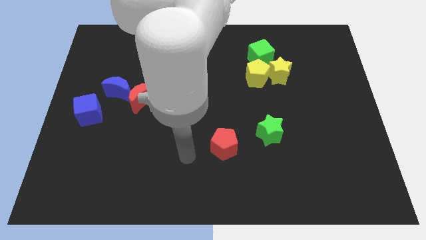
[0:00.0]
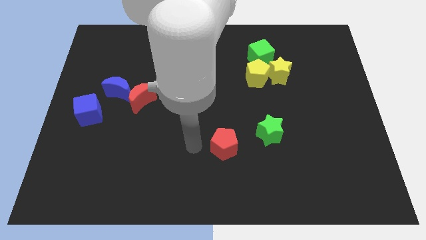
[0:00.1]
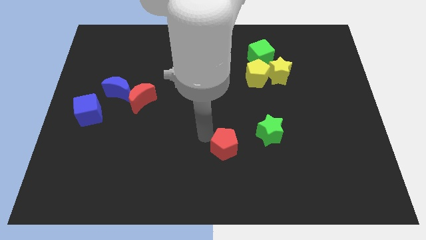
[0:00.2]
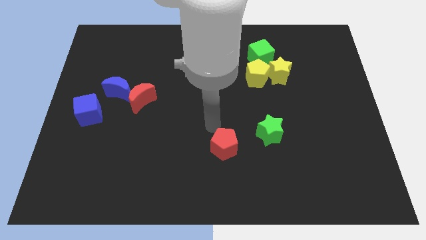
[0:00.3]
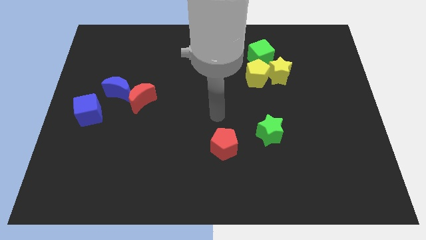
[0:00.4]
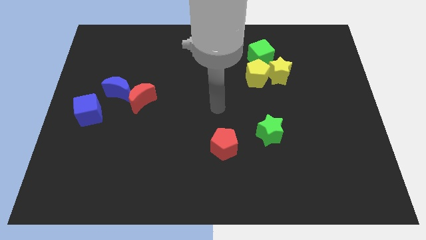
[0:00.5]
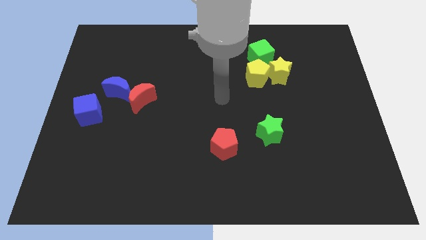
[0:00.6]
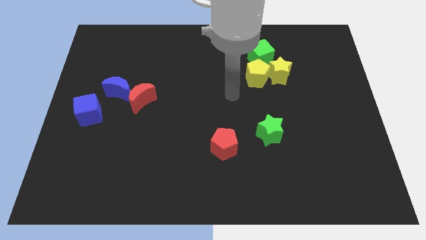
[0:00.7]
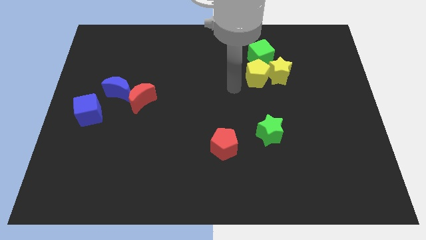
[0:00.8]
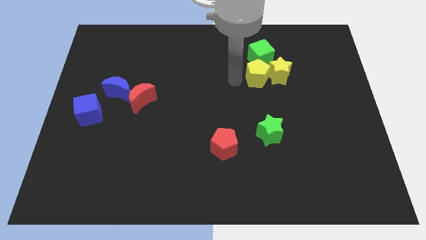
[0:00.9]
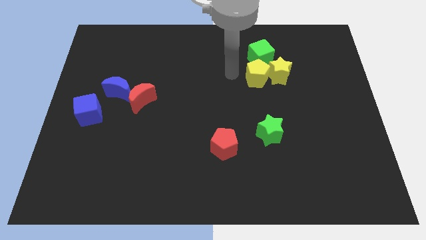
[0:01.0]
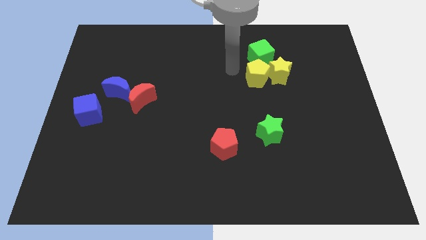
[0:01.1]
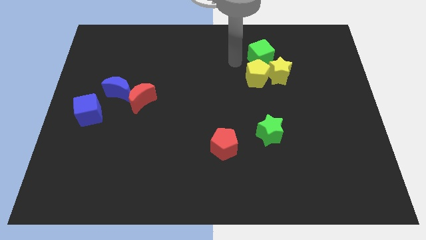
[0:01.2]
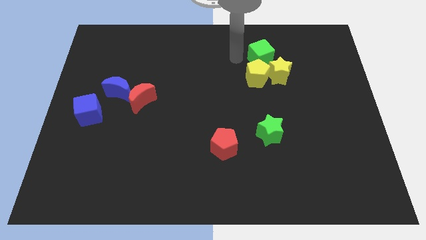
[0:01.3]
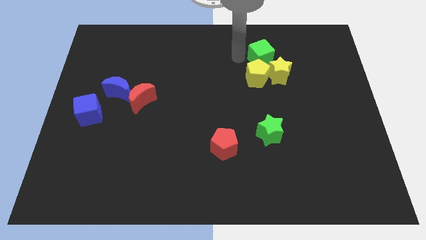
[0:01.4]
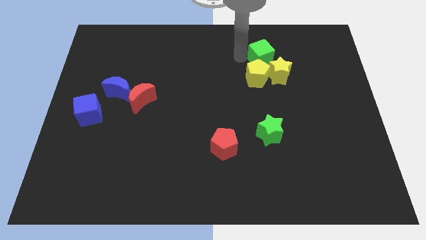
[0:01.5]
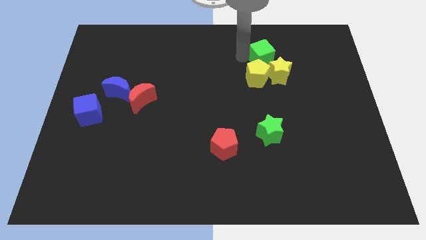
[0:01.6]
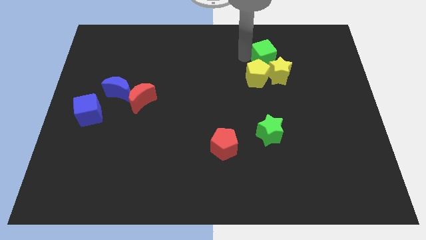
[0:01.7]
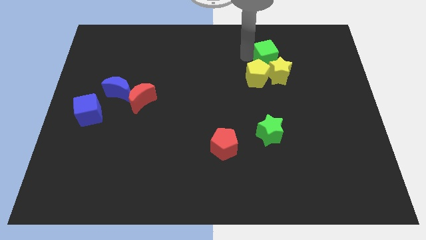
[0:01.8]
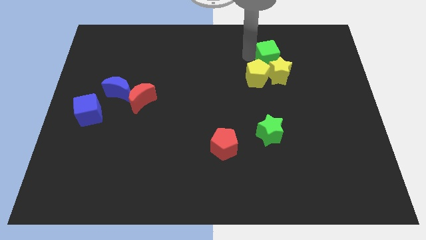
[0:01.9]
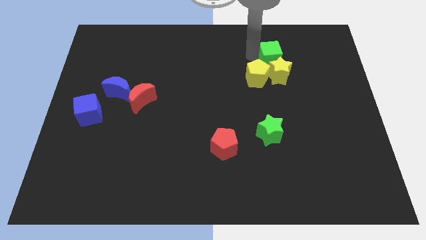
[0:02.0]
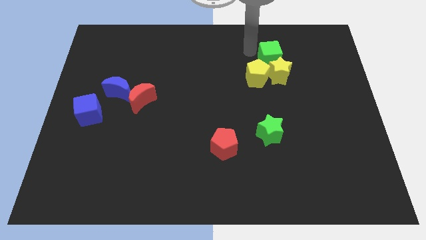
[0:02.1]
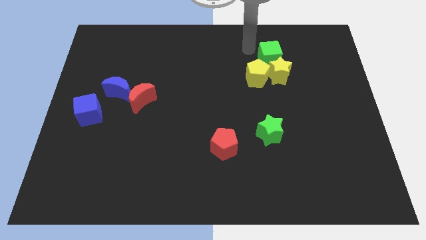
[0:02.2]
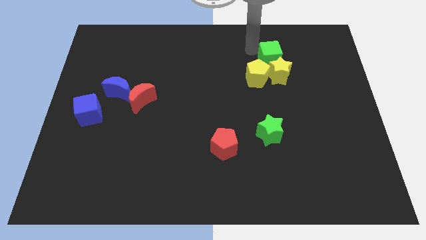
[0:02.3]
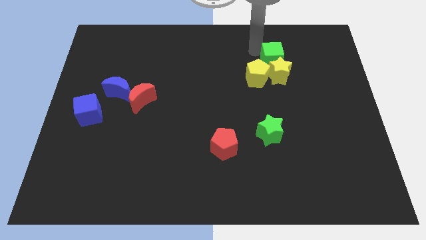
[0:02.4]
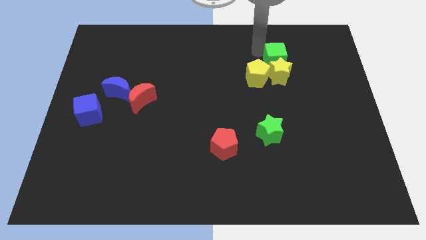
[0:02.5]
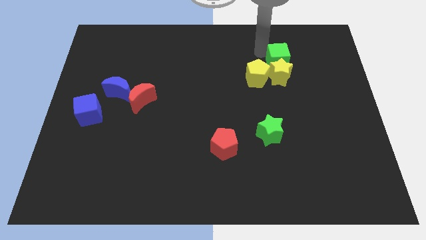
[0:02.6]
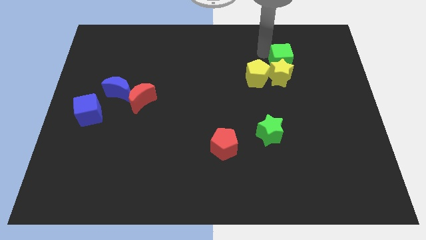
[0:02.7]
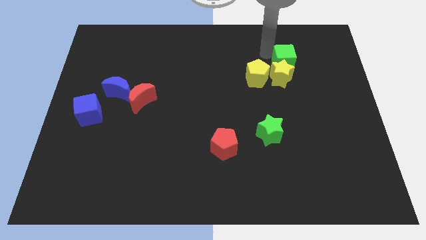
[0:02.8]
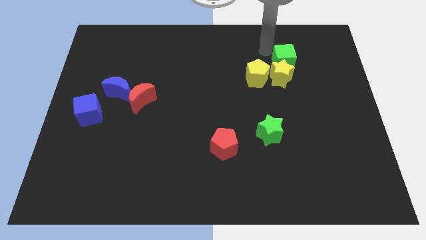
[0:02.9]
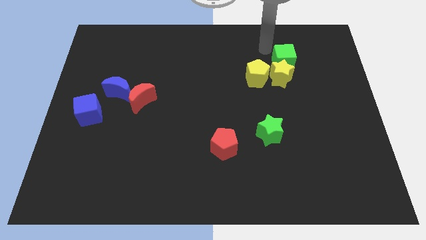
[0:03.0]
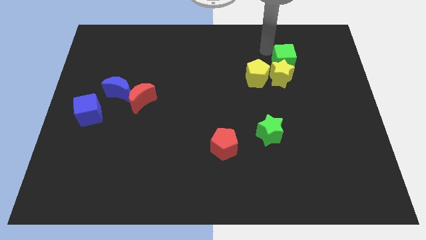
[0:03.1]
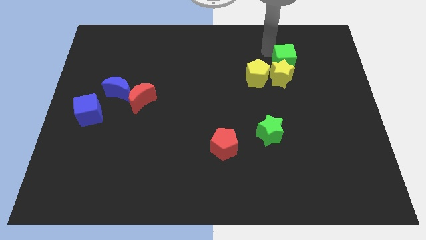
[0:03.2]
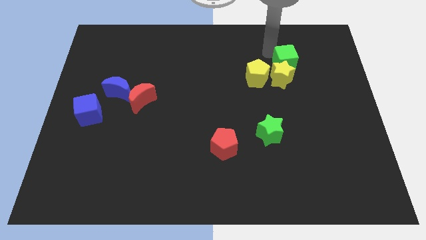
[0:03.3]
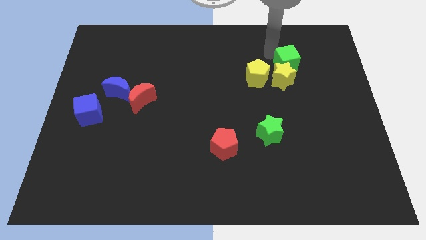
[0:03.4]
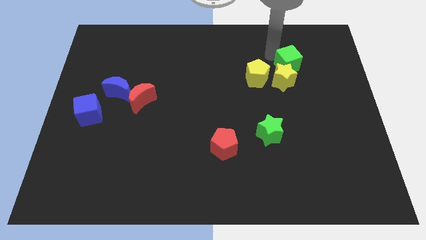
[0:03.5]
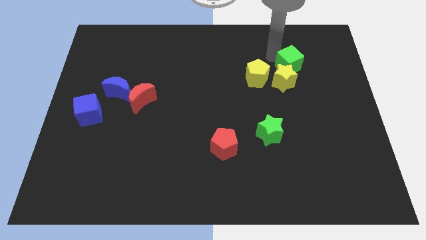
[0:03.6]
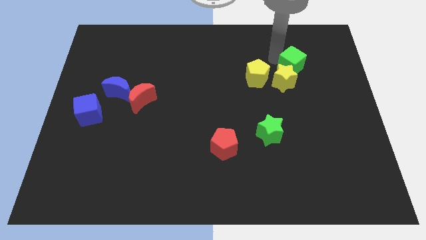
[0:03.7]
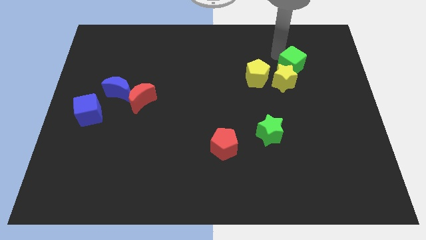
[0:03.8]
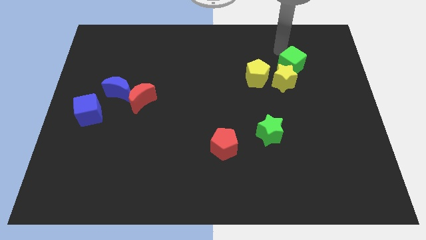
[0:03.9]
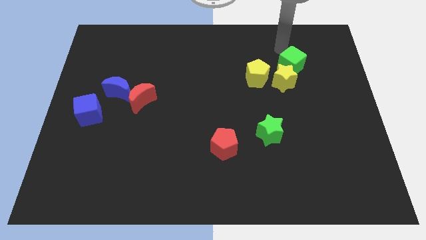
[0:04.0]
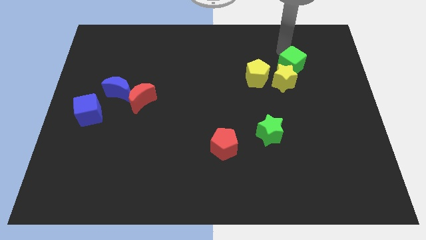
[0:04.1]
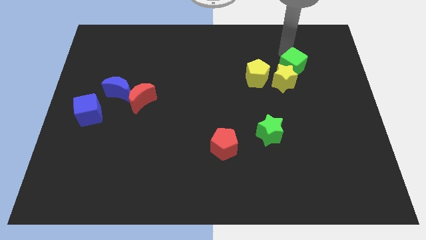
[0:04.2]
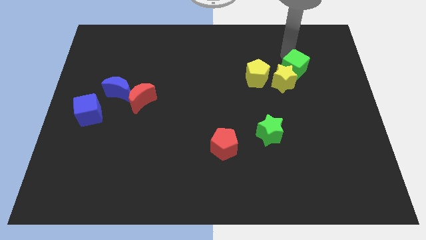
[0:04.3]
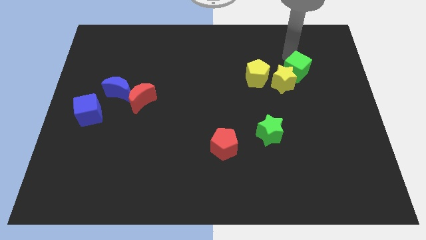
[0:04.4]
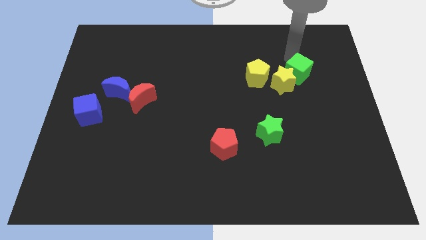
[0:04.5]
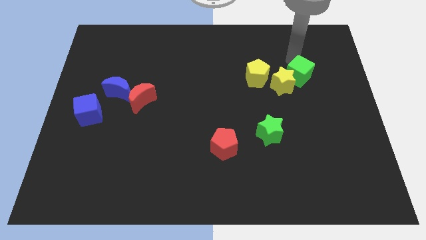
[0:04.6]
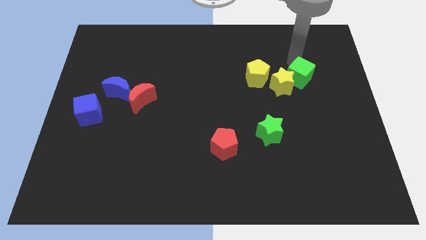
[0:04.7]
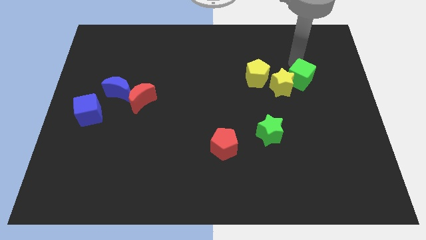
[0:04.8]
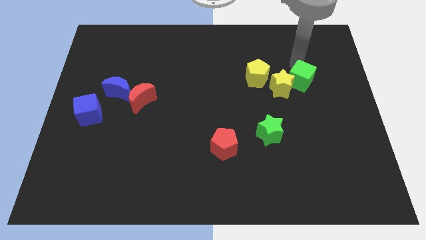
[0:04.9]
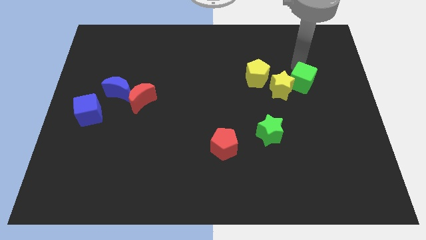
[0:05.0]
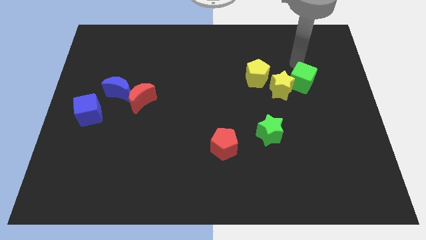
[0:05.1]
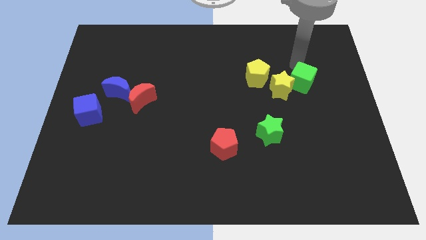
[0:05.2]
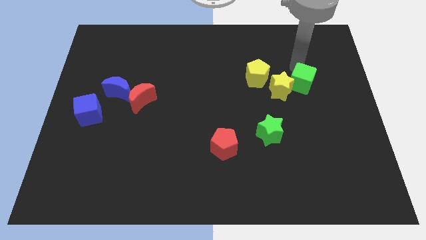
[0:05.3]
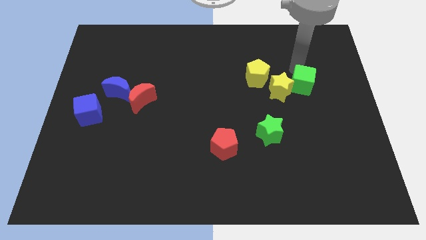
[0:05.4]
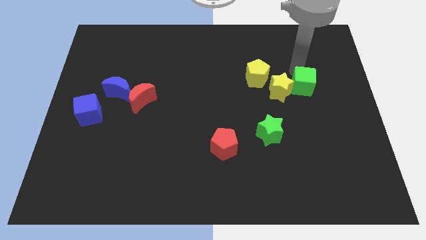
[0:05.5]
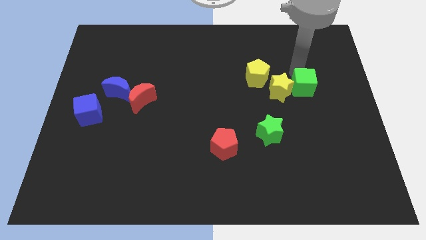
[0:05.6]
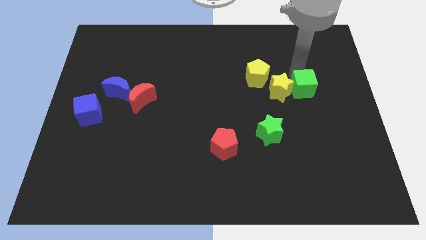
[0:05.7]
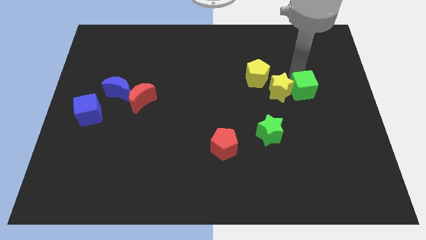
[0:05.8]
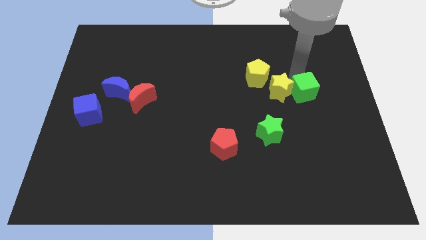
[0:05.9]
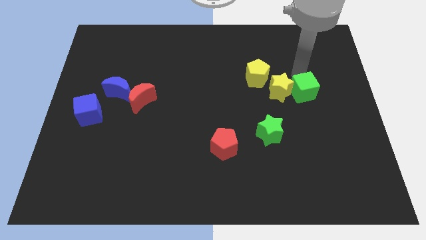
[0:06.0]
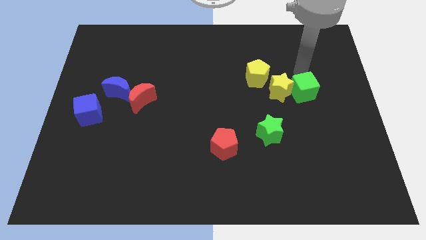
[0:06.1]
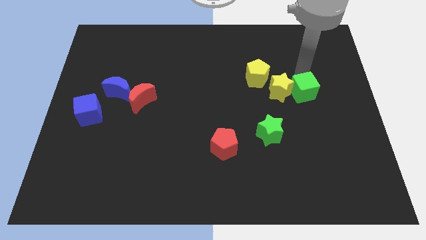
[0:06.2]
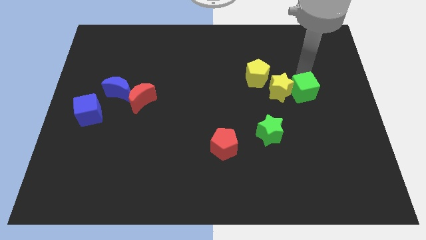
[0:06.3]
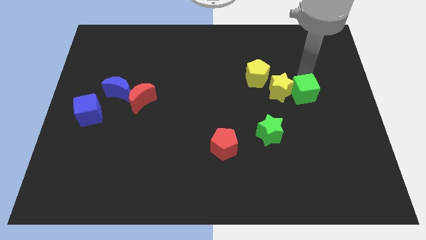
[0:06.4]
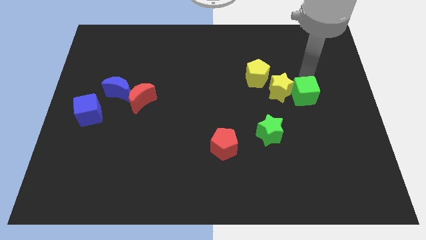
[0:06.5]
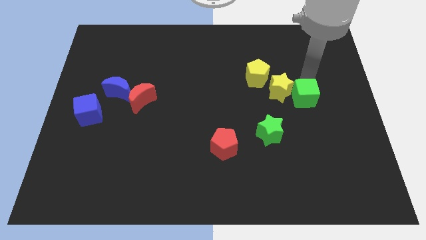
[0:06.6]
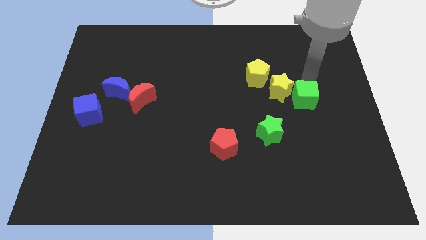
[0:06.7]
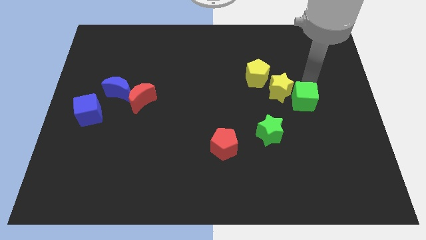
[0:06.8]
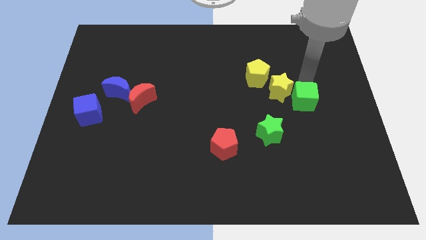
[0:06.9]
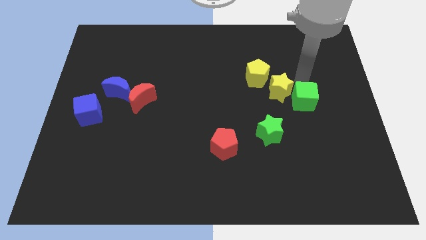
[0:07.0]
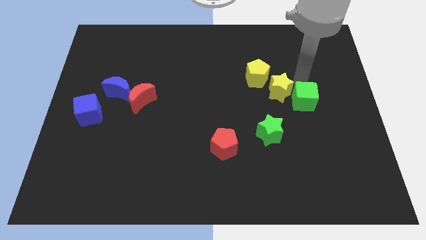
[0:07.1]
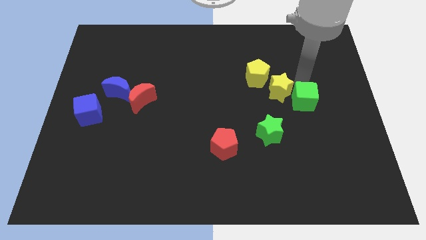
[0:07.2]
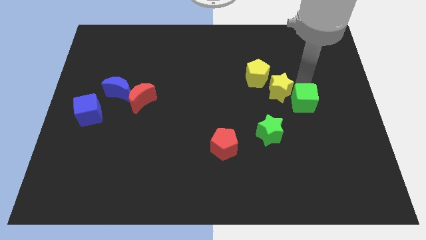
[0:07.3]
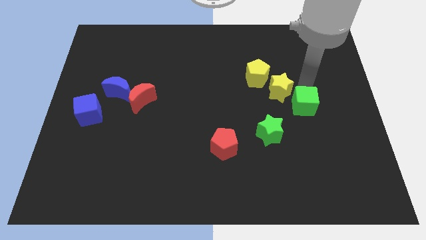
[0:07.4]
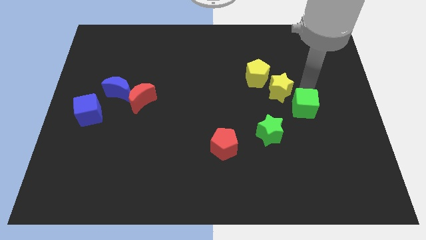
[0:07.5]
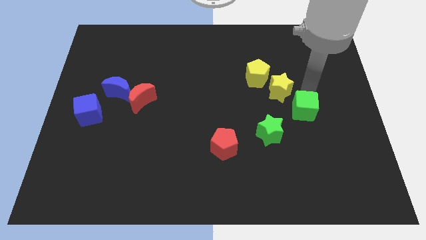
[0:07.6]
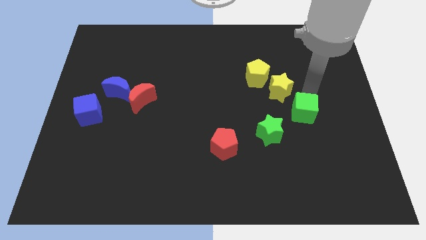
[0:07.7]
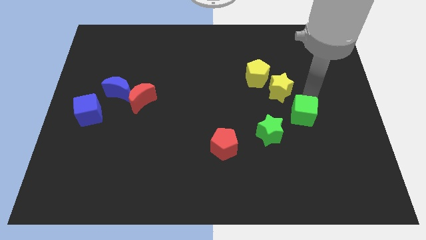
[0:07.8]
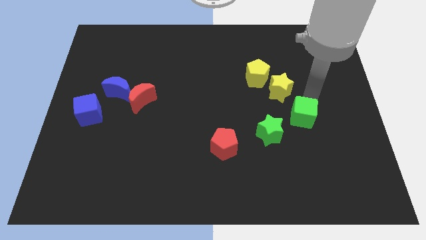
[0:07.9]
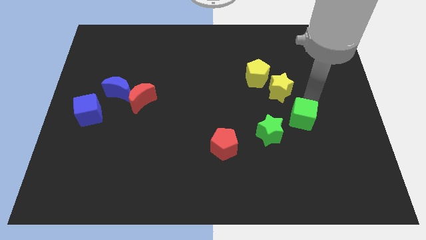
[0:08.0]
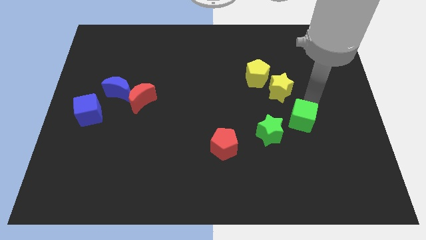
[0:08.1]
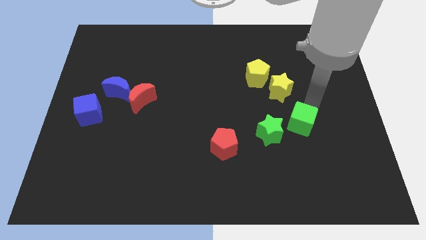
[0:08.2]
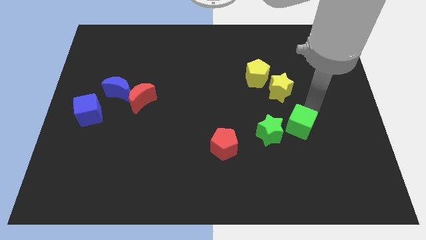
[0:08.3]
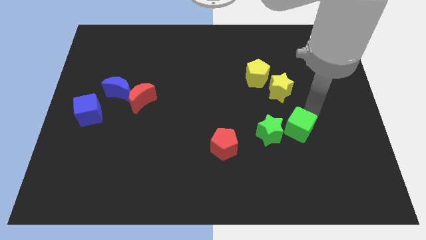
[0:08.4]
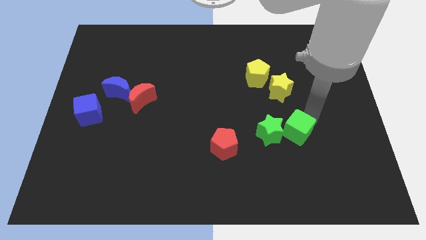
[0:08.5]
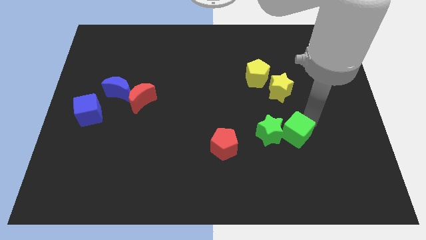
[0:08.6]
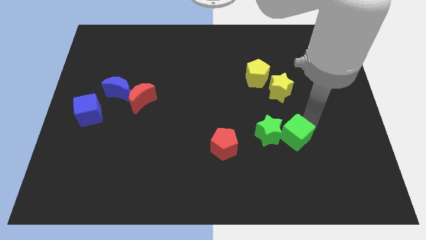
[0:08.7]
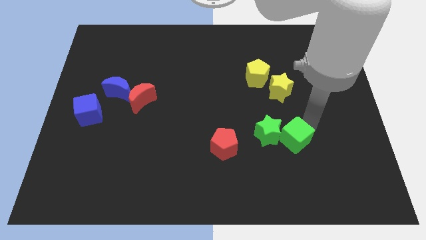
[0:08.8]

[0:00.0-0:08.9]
put the green cube to the right of the red pentagon
